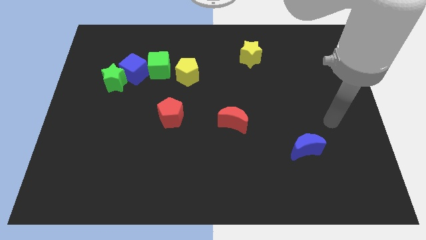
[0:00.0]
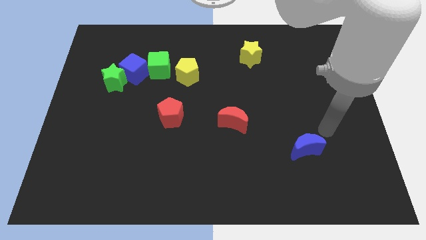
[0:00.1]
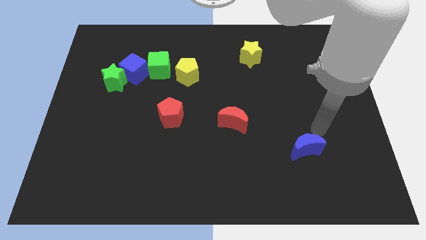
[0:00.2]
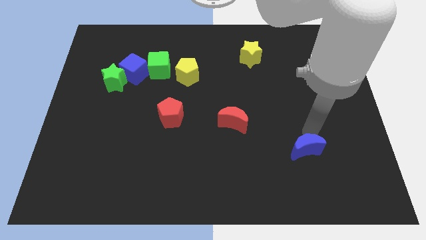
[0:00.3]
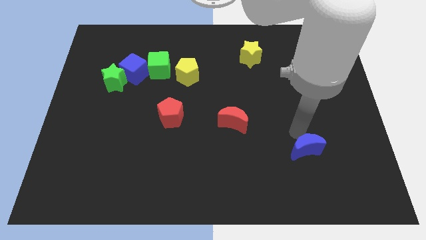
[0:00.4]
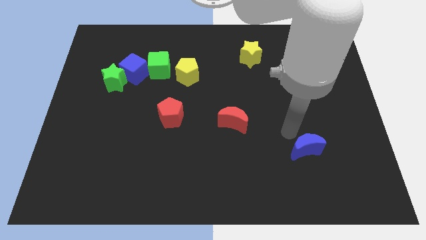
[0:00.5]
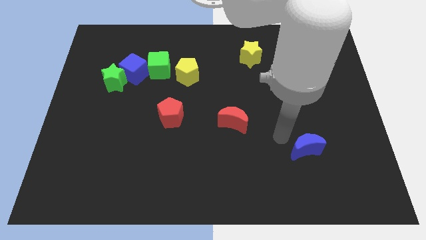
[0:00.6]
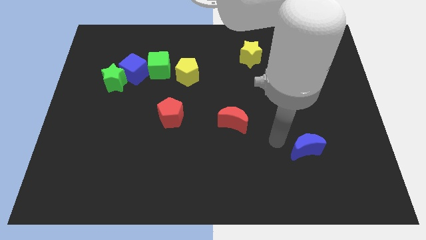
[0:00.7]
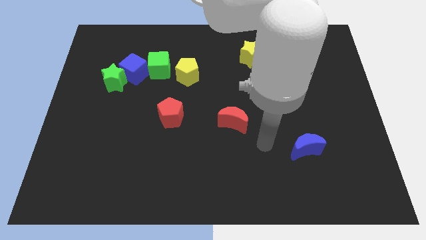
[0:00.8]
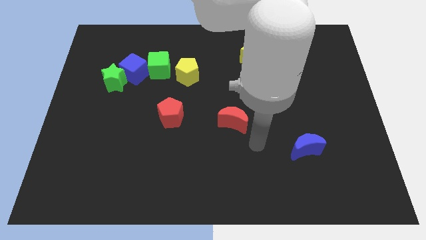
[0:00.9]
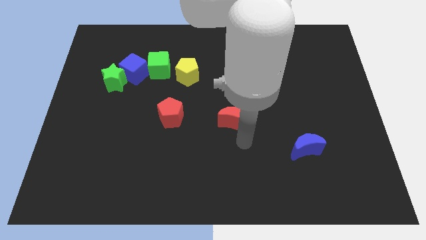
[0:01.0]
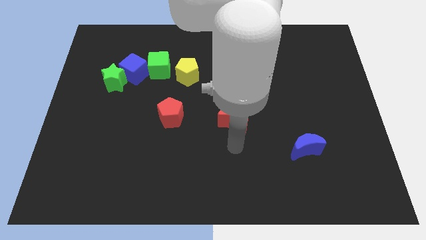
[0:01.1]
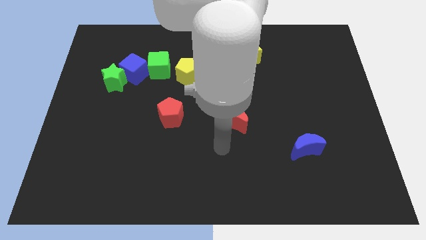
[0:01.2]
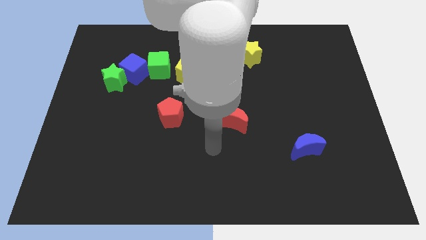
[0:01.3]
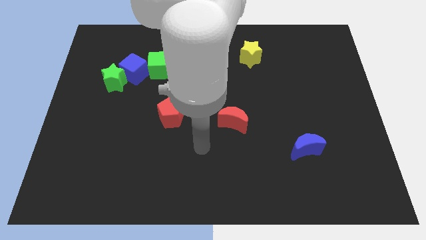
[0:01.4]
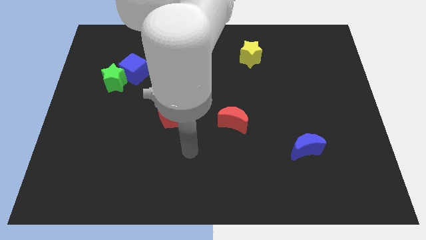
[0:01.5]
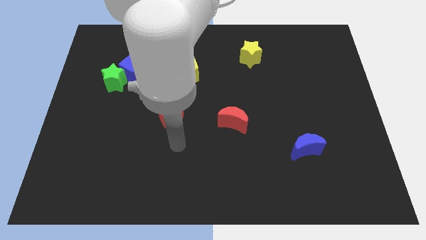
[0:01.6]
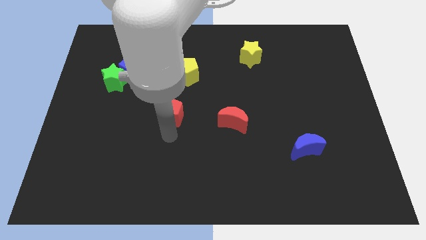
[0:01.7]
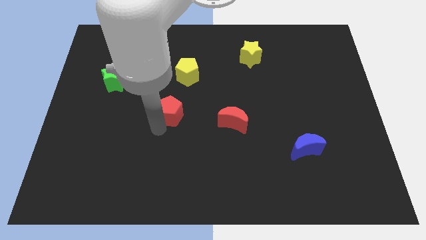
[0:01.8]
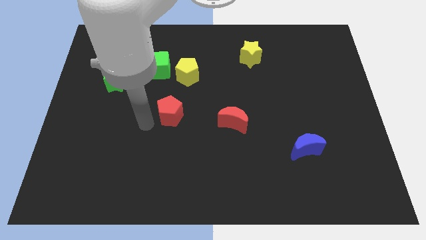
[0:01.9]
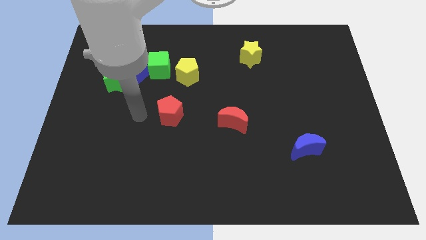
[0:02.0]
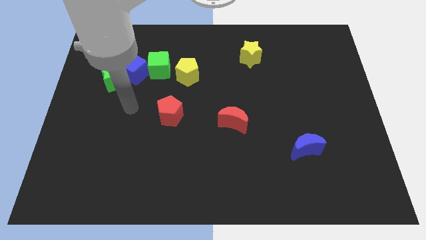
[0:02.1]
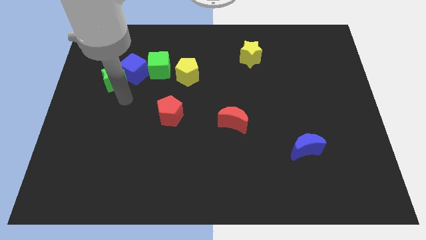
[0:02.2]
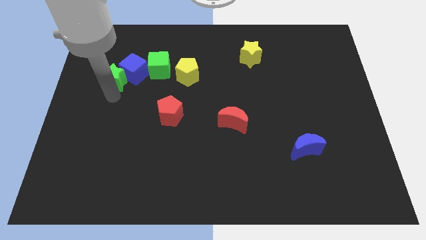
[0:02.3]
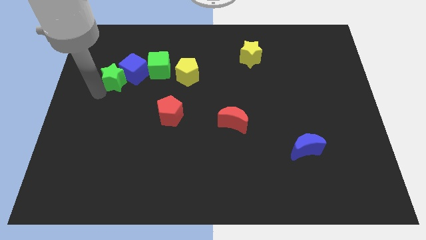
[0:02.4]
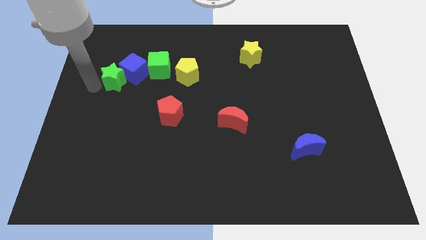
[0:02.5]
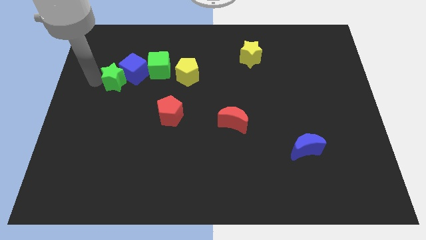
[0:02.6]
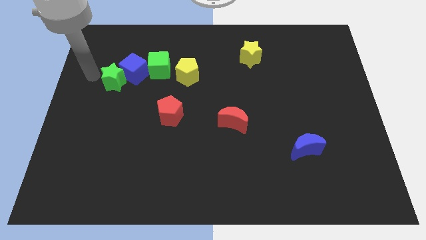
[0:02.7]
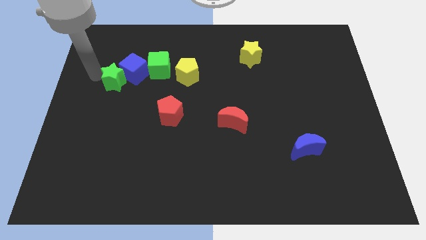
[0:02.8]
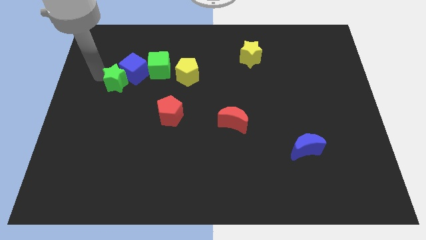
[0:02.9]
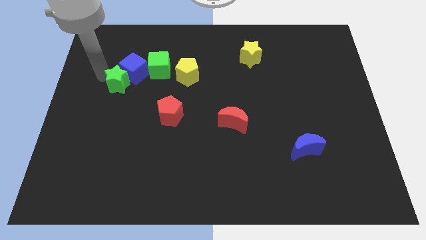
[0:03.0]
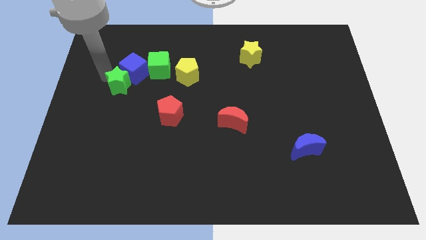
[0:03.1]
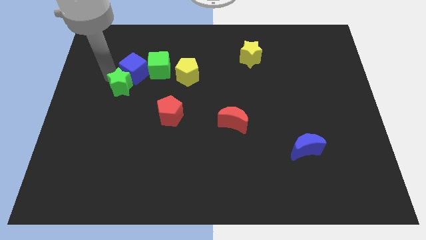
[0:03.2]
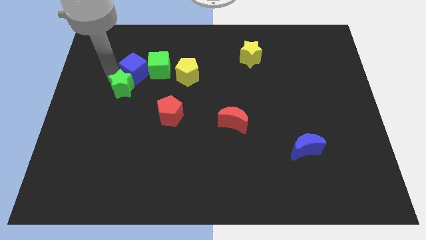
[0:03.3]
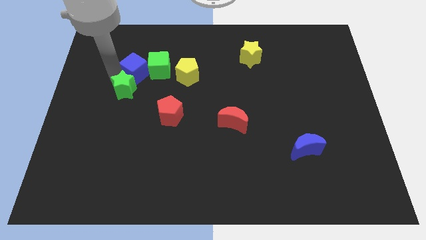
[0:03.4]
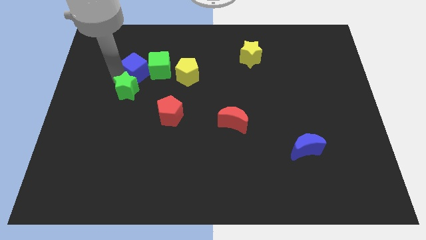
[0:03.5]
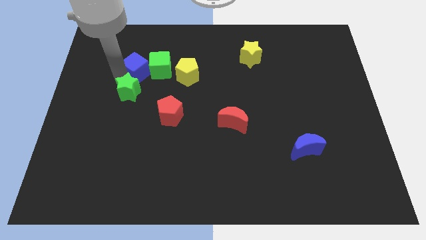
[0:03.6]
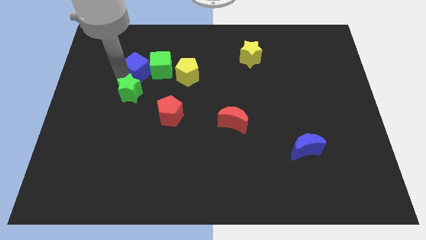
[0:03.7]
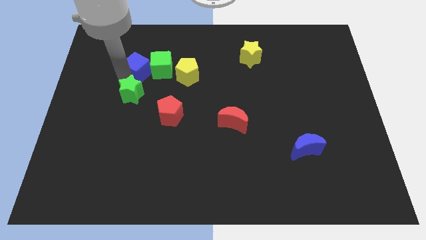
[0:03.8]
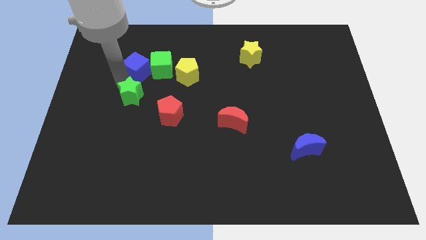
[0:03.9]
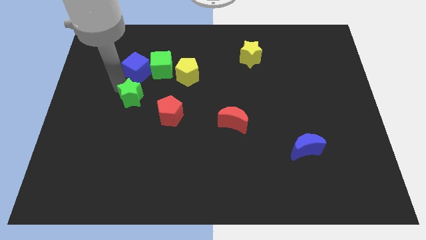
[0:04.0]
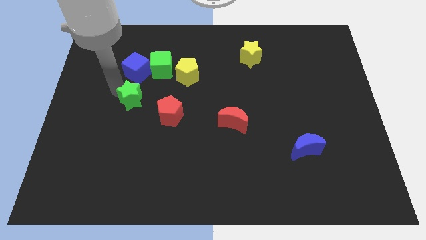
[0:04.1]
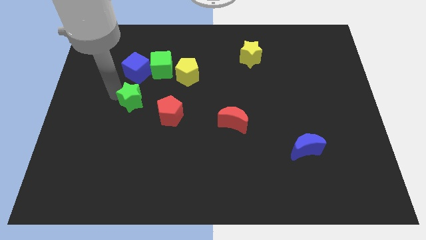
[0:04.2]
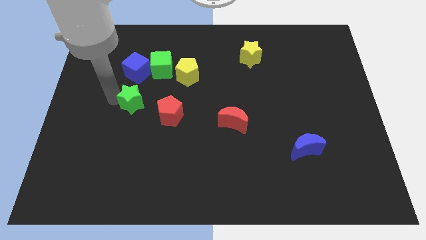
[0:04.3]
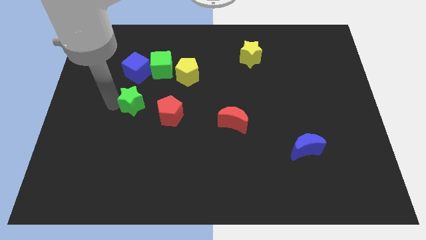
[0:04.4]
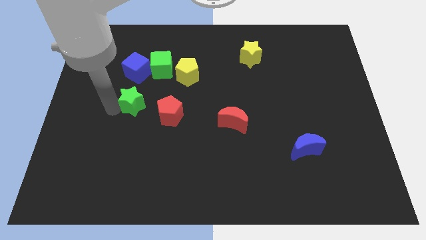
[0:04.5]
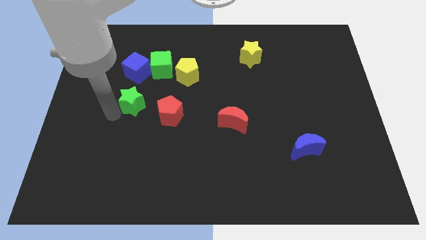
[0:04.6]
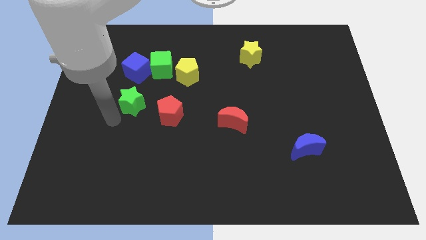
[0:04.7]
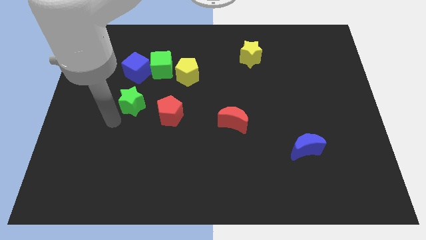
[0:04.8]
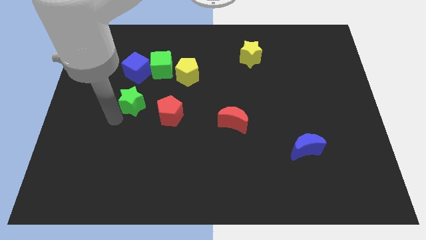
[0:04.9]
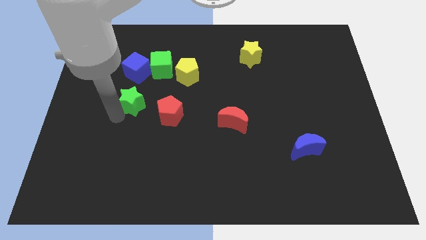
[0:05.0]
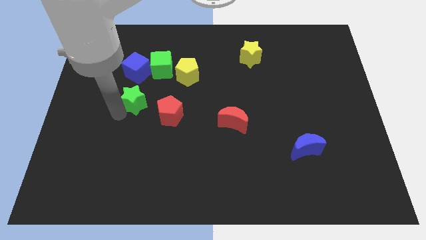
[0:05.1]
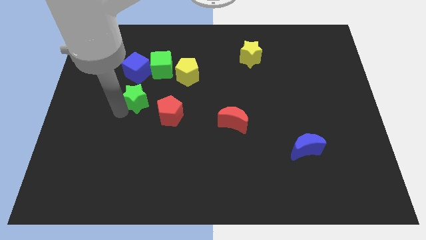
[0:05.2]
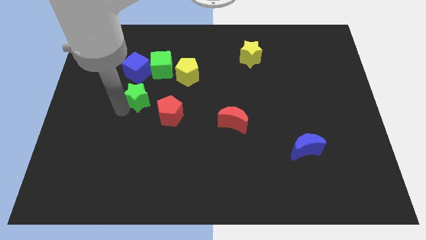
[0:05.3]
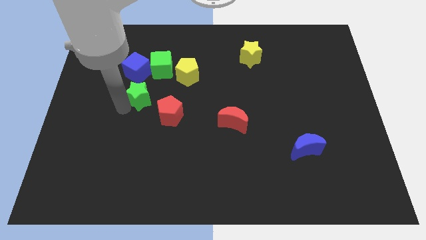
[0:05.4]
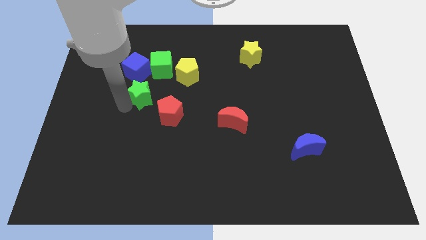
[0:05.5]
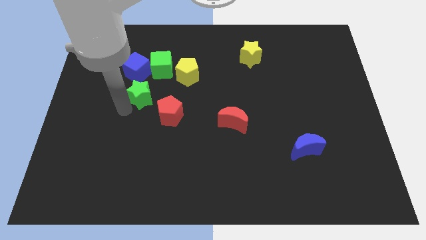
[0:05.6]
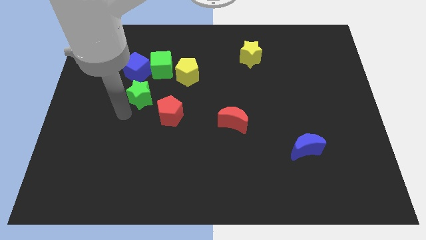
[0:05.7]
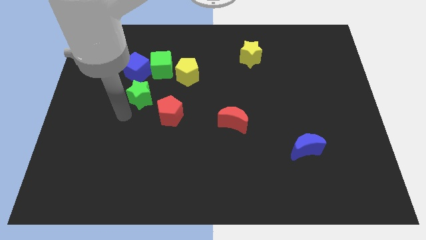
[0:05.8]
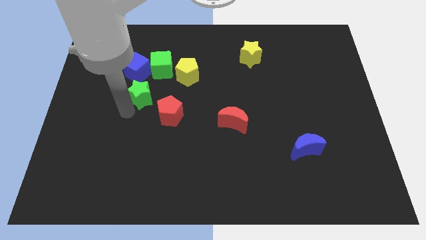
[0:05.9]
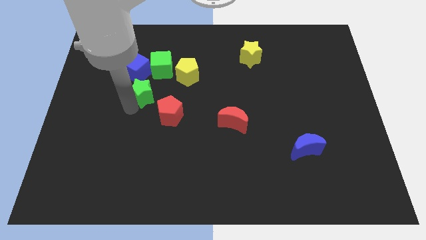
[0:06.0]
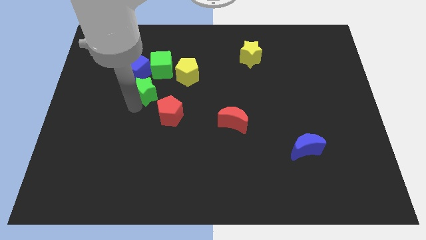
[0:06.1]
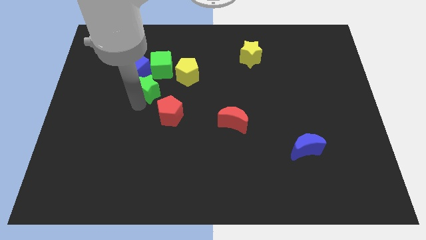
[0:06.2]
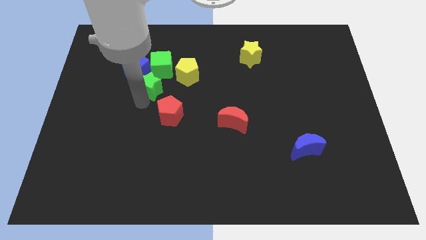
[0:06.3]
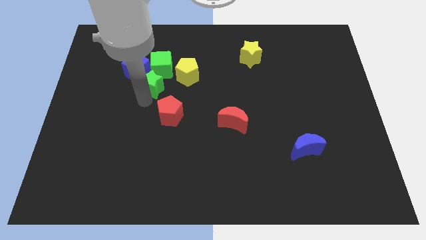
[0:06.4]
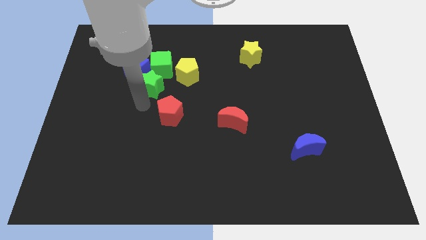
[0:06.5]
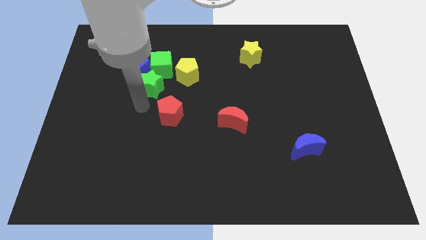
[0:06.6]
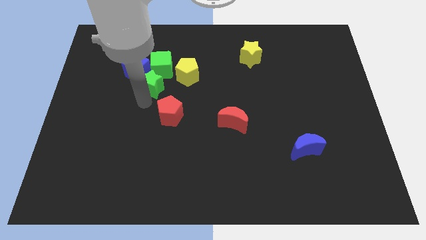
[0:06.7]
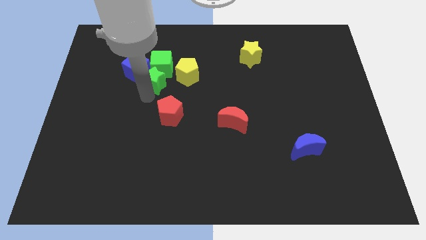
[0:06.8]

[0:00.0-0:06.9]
slide the green star close to the green cube
